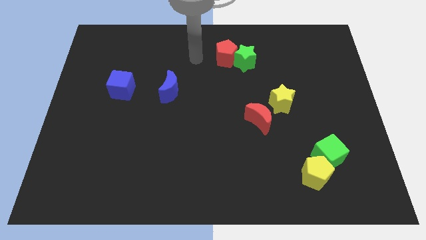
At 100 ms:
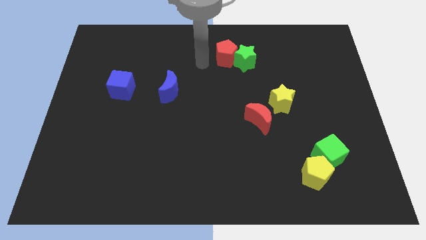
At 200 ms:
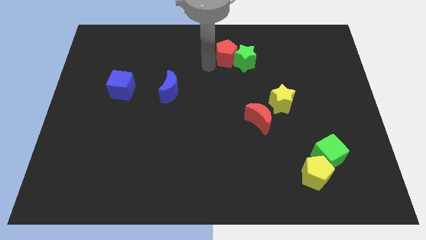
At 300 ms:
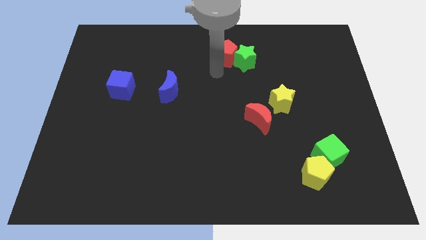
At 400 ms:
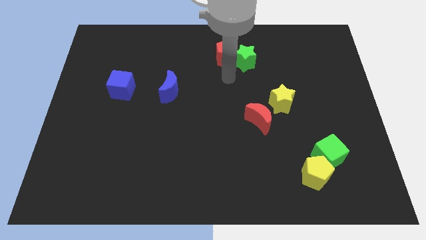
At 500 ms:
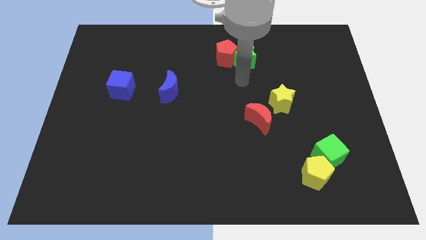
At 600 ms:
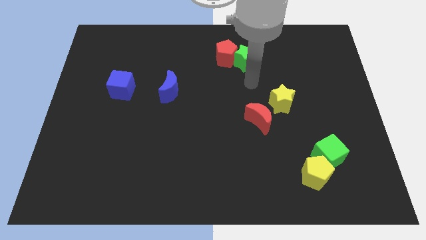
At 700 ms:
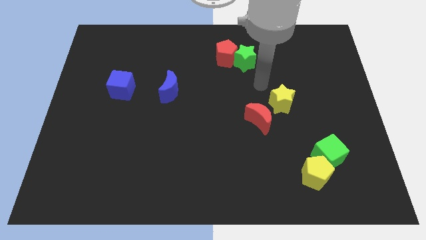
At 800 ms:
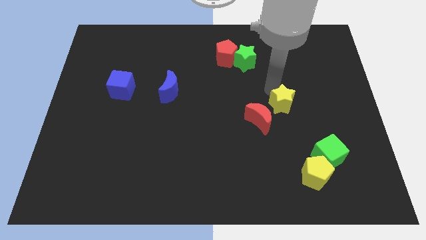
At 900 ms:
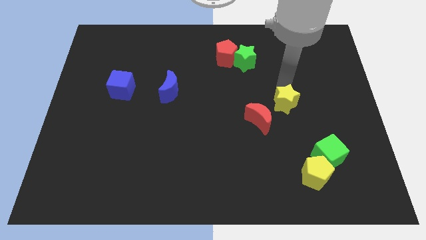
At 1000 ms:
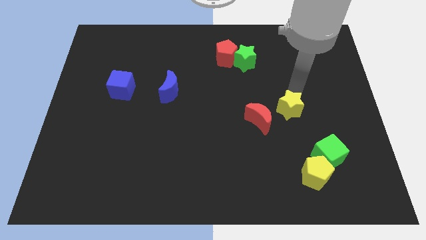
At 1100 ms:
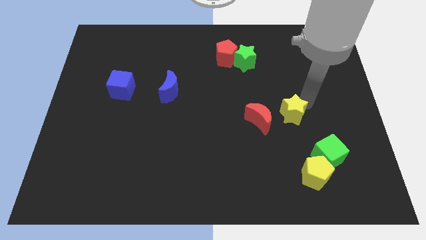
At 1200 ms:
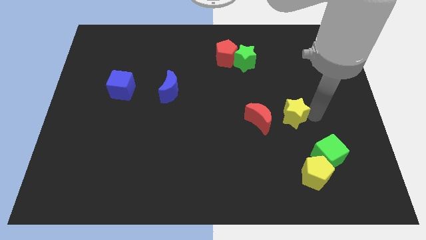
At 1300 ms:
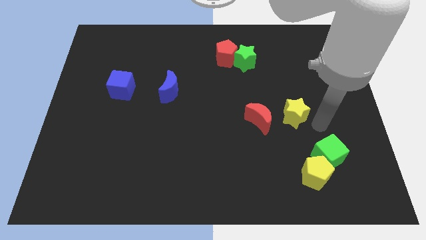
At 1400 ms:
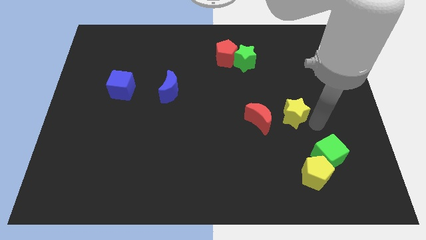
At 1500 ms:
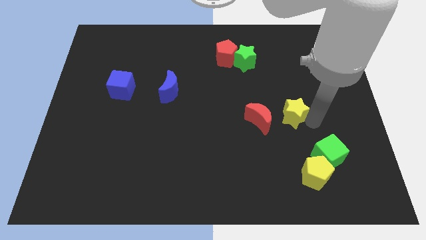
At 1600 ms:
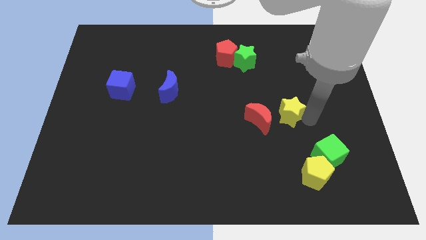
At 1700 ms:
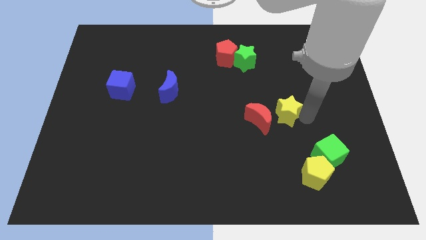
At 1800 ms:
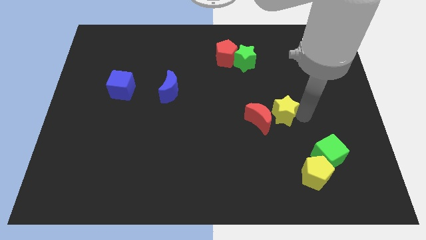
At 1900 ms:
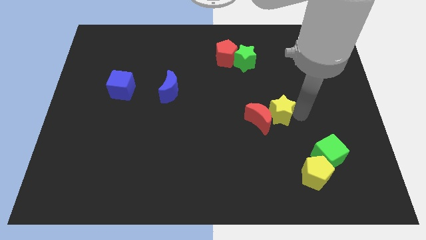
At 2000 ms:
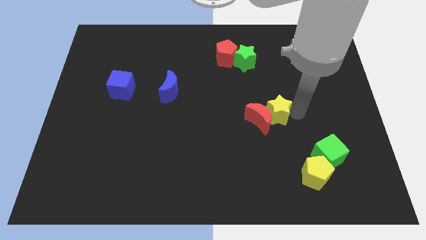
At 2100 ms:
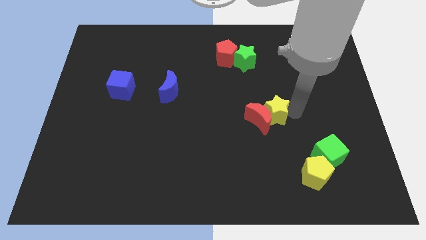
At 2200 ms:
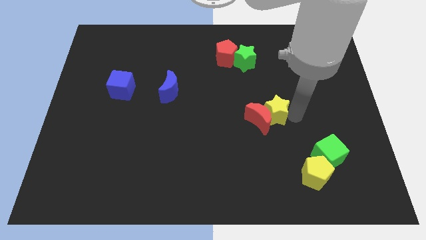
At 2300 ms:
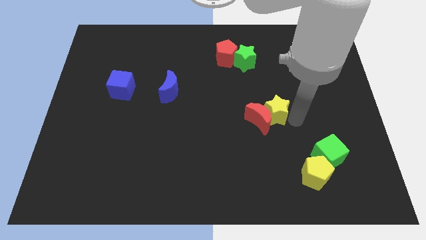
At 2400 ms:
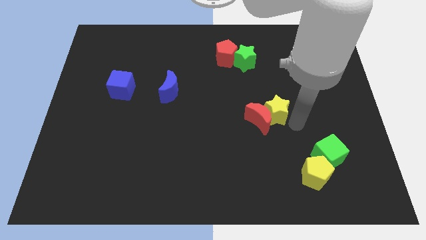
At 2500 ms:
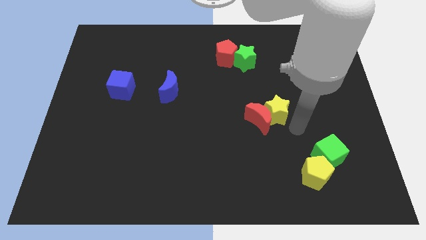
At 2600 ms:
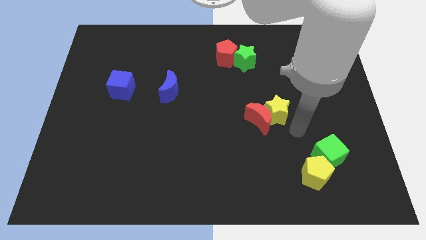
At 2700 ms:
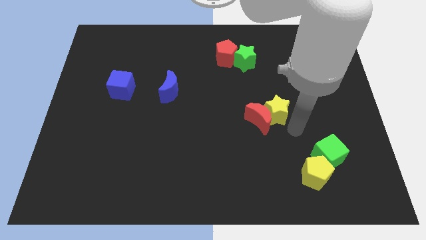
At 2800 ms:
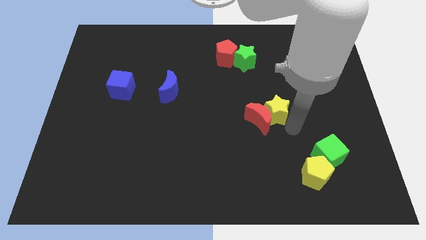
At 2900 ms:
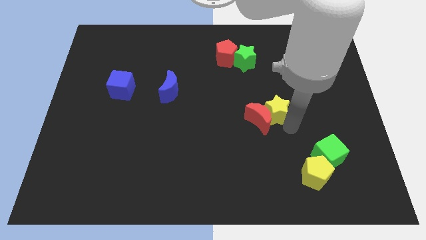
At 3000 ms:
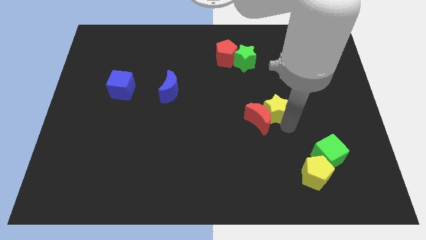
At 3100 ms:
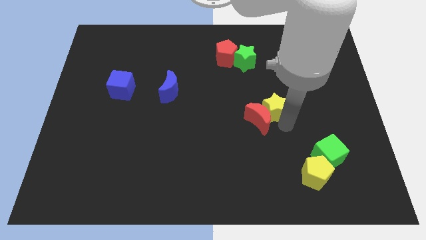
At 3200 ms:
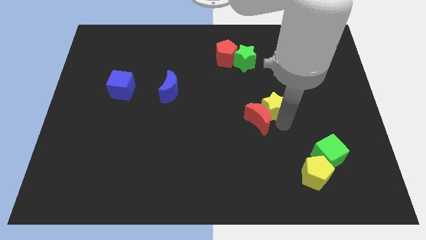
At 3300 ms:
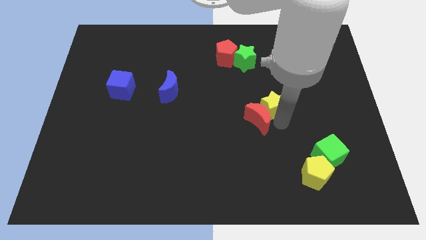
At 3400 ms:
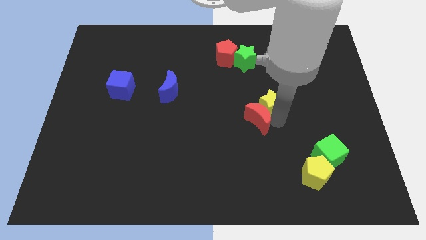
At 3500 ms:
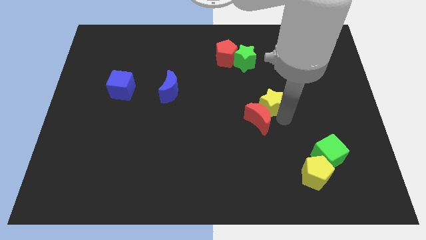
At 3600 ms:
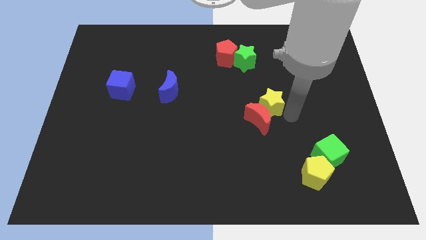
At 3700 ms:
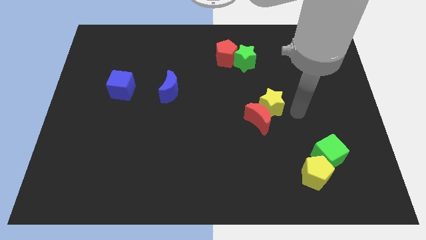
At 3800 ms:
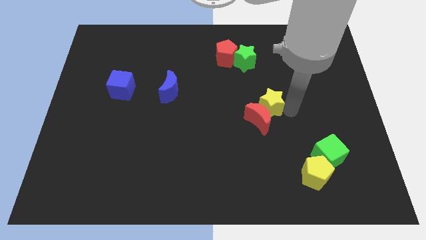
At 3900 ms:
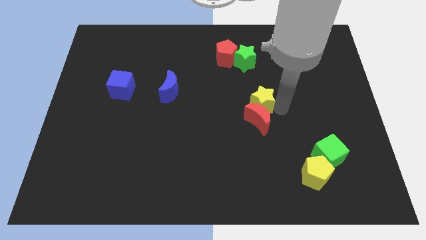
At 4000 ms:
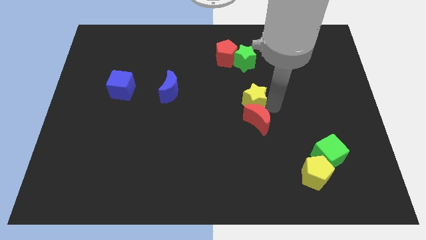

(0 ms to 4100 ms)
push the yellow star a little to the left

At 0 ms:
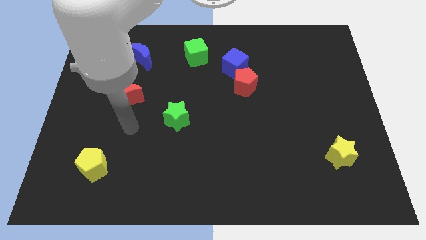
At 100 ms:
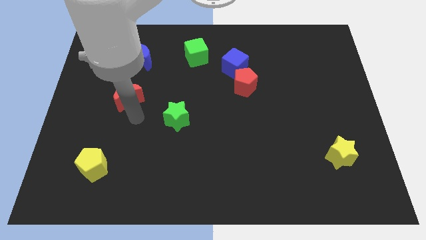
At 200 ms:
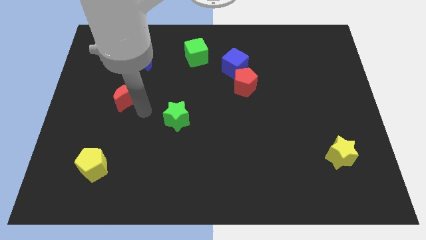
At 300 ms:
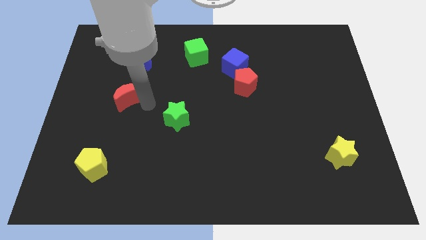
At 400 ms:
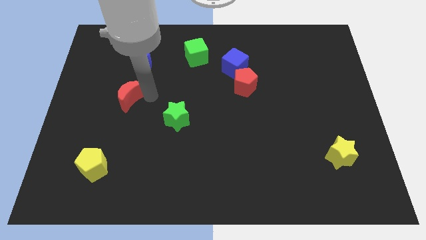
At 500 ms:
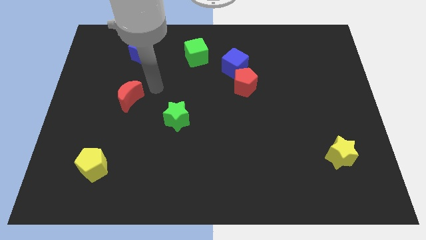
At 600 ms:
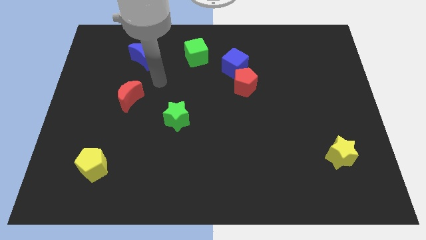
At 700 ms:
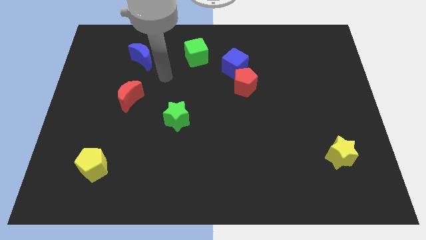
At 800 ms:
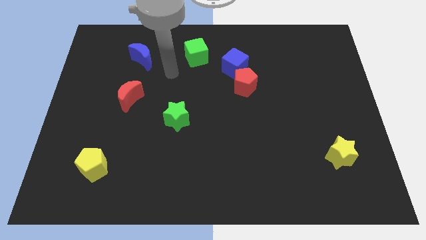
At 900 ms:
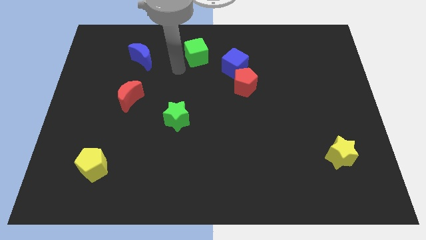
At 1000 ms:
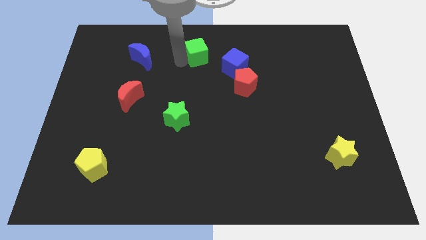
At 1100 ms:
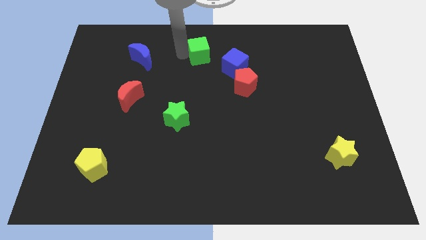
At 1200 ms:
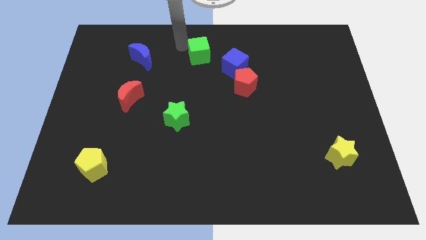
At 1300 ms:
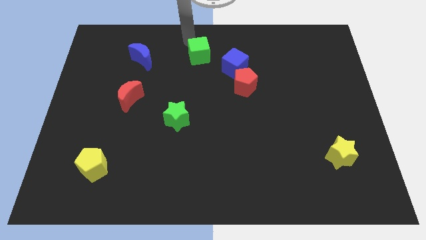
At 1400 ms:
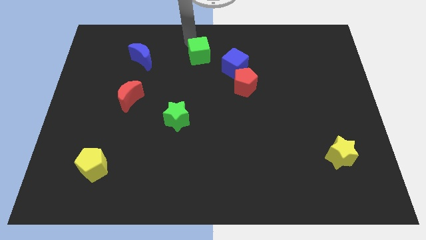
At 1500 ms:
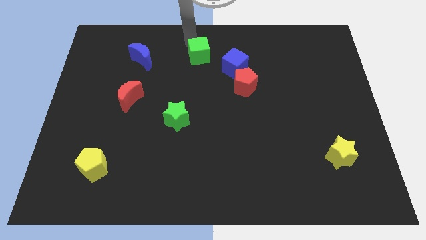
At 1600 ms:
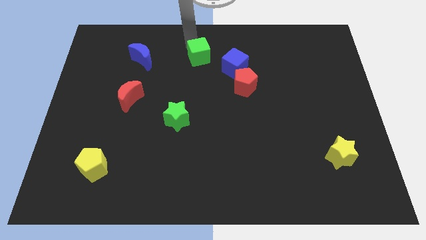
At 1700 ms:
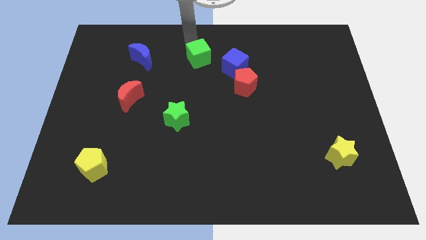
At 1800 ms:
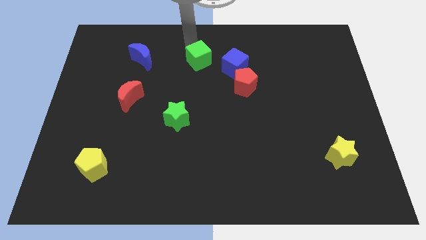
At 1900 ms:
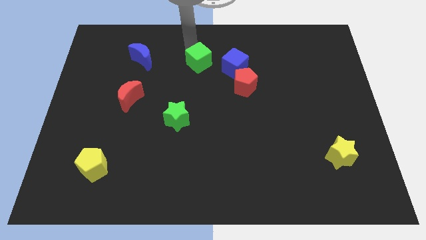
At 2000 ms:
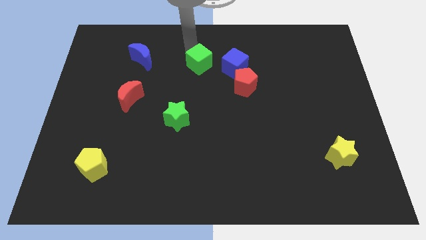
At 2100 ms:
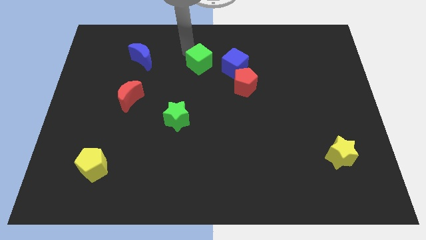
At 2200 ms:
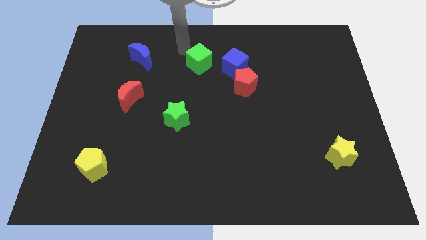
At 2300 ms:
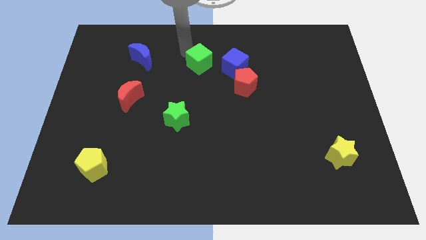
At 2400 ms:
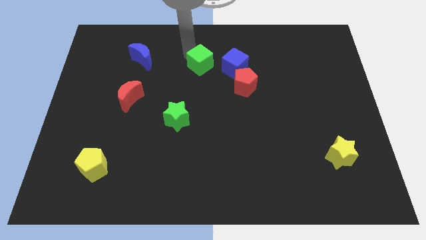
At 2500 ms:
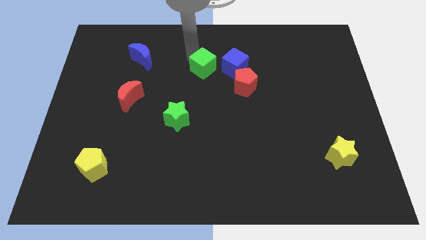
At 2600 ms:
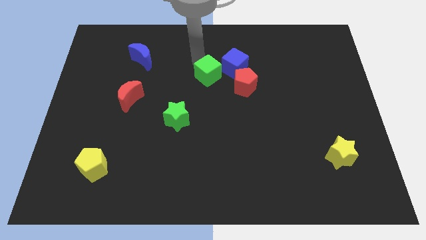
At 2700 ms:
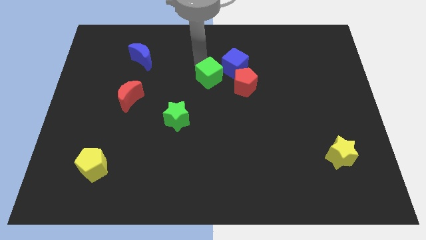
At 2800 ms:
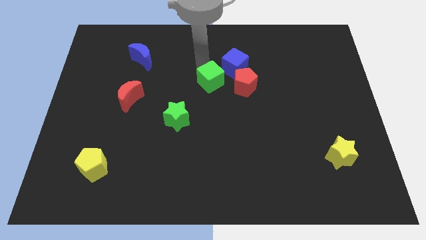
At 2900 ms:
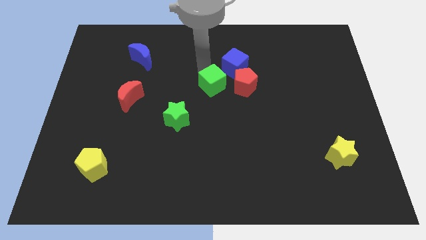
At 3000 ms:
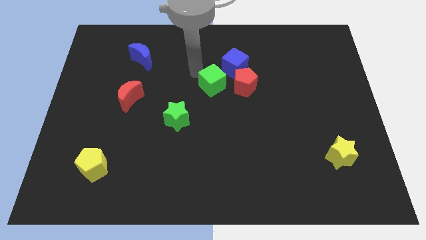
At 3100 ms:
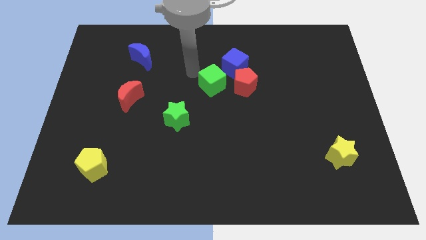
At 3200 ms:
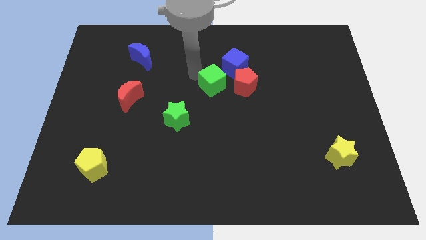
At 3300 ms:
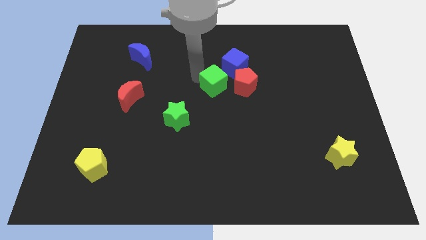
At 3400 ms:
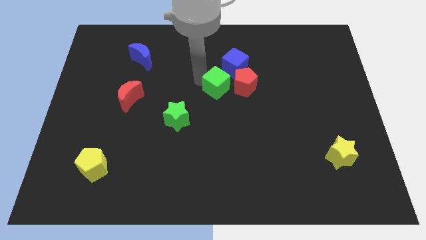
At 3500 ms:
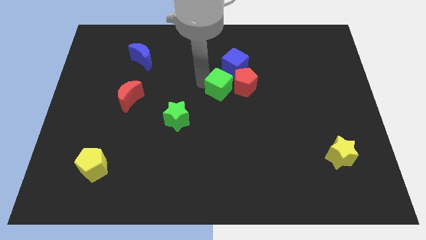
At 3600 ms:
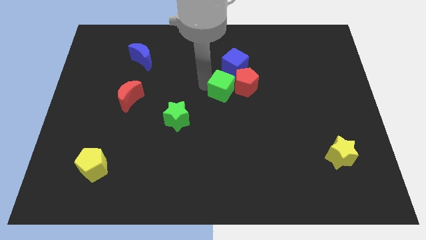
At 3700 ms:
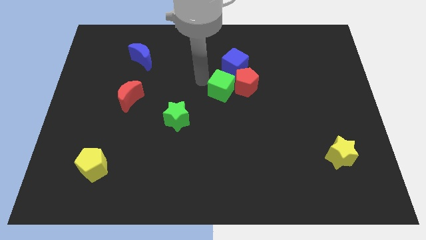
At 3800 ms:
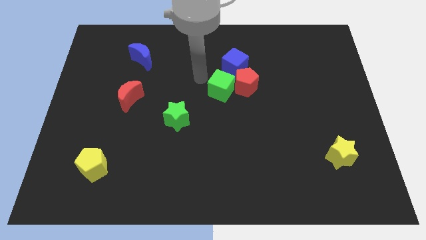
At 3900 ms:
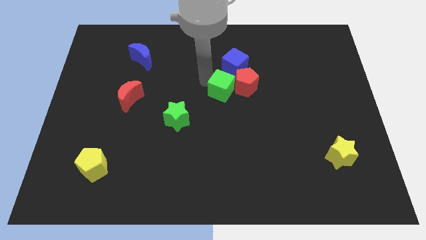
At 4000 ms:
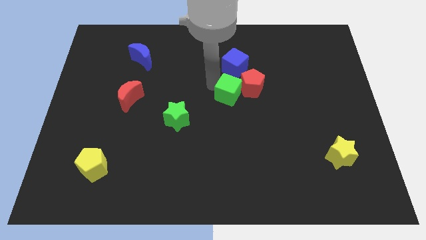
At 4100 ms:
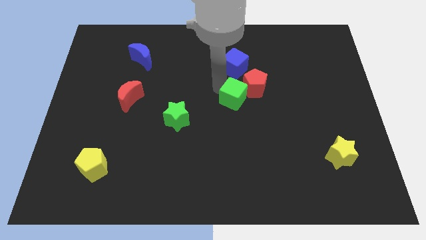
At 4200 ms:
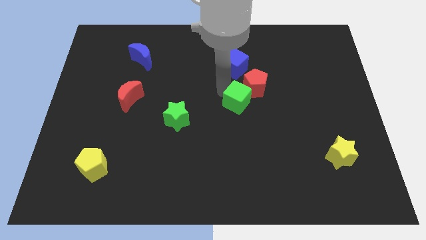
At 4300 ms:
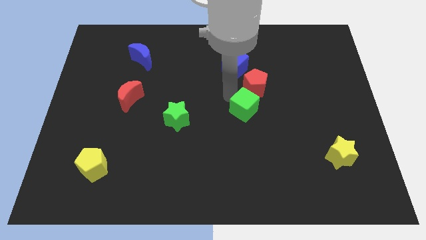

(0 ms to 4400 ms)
slide the green cube down and to the right
